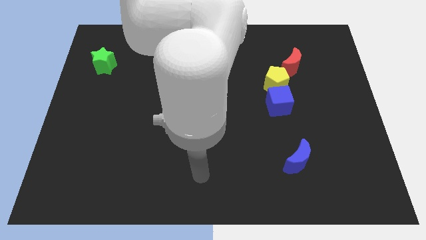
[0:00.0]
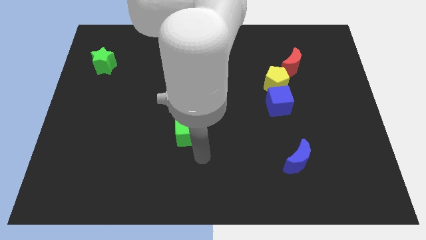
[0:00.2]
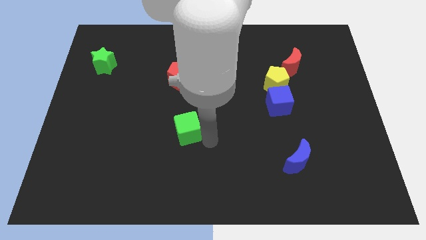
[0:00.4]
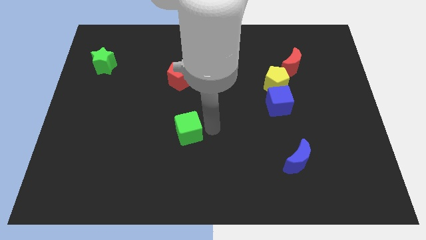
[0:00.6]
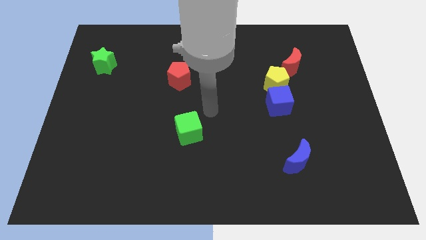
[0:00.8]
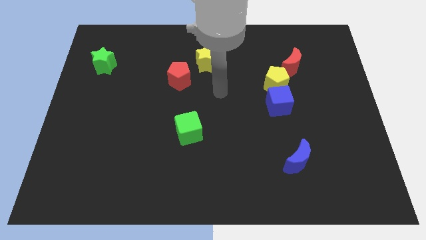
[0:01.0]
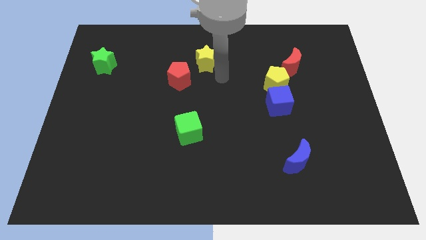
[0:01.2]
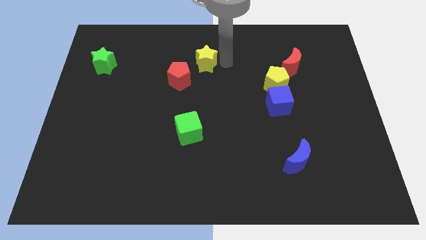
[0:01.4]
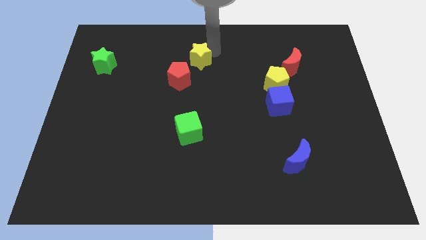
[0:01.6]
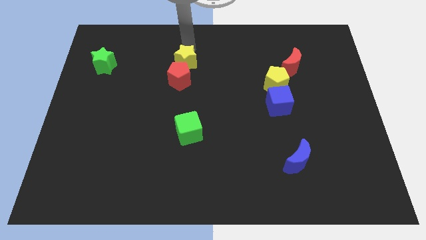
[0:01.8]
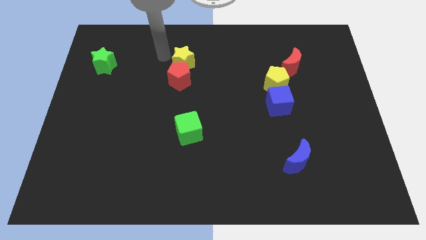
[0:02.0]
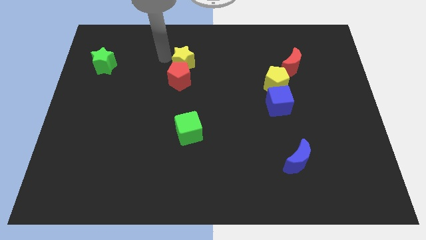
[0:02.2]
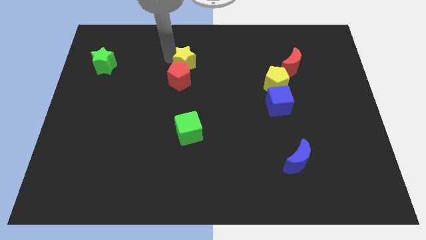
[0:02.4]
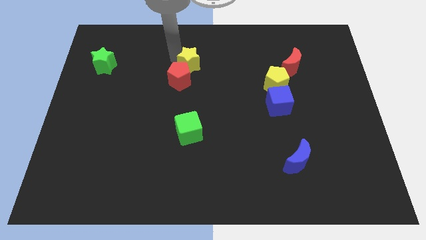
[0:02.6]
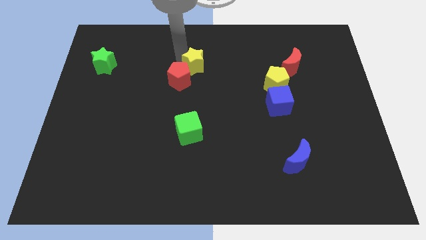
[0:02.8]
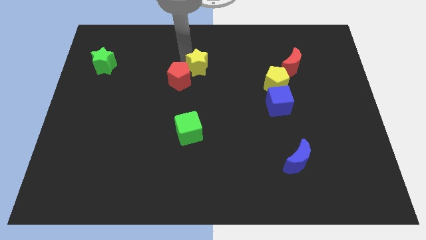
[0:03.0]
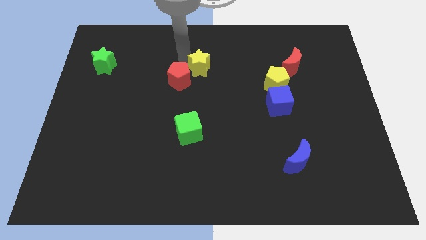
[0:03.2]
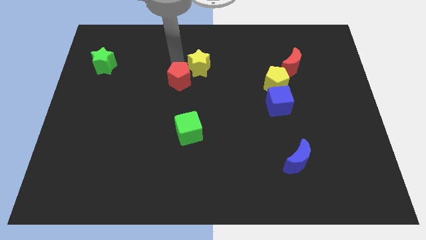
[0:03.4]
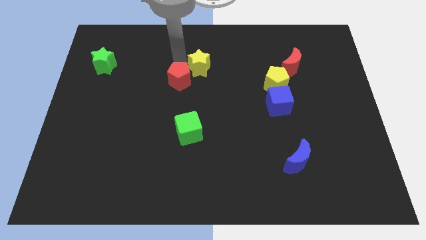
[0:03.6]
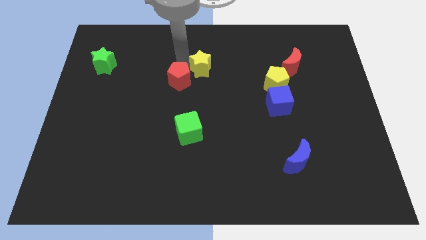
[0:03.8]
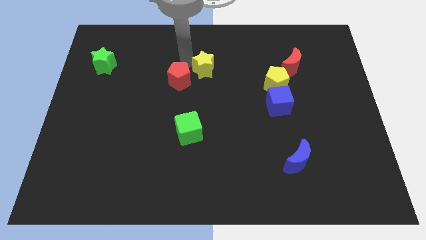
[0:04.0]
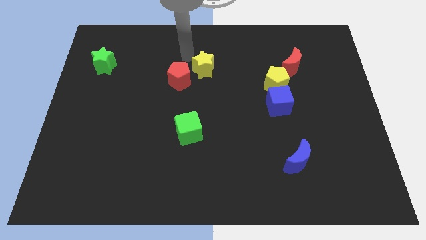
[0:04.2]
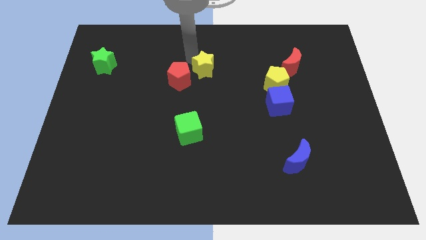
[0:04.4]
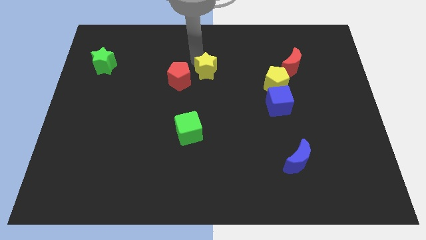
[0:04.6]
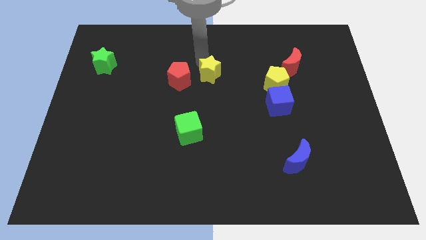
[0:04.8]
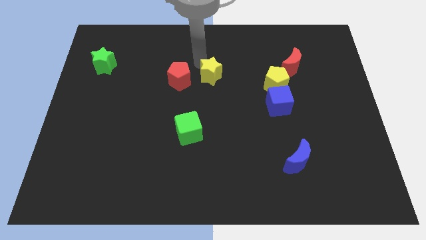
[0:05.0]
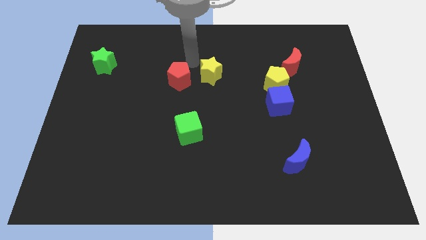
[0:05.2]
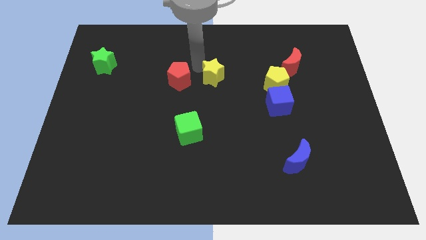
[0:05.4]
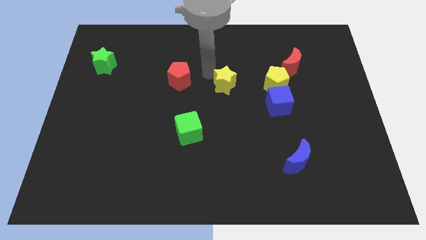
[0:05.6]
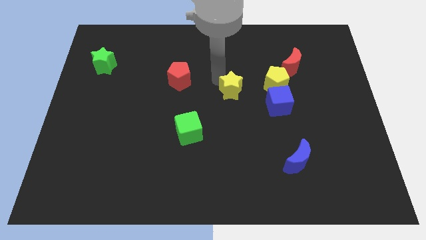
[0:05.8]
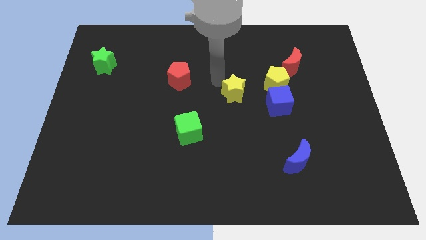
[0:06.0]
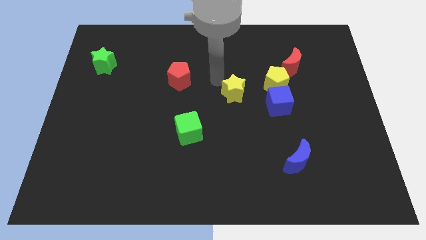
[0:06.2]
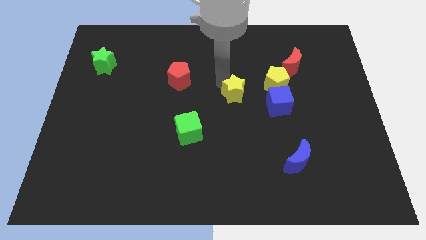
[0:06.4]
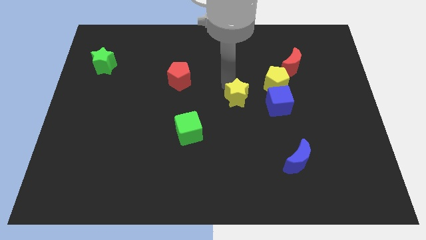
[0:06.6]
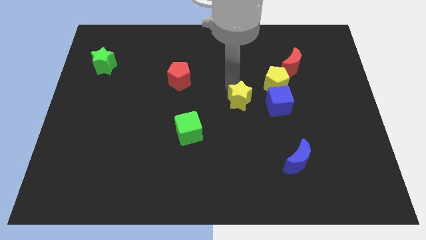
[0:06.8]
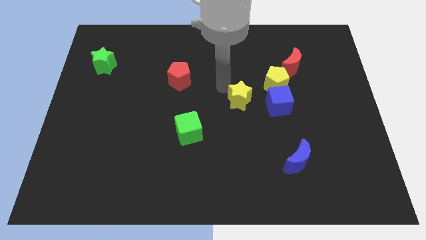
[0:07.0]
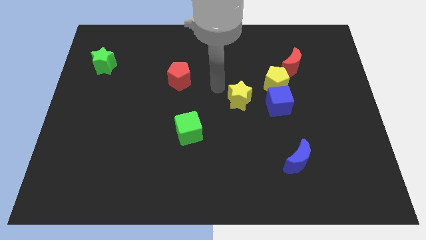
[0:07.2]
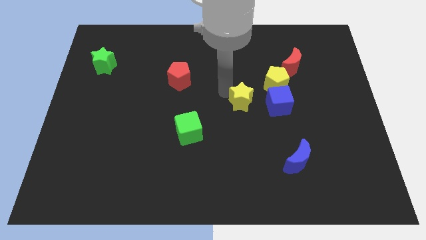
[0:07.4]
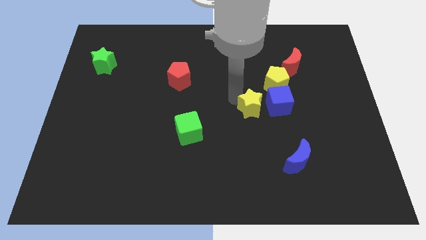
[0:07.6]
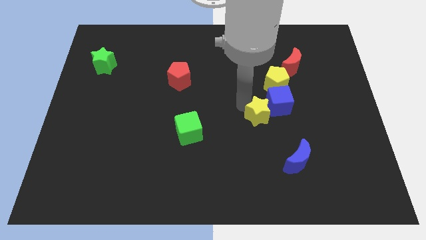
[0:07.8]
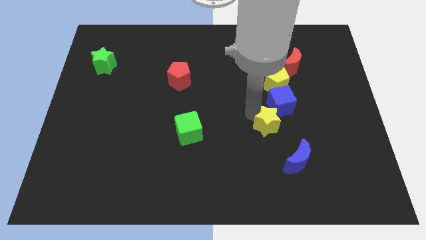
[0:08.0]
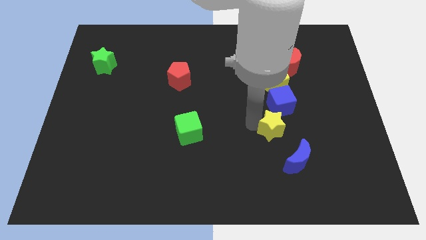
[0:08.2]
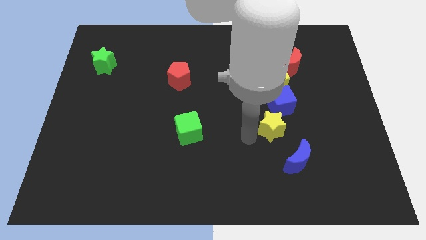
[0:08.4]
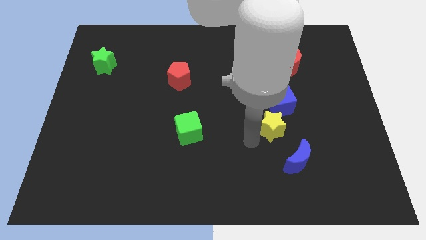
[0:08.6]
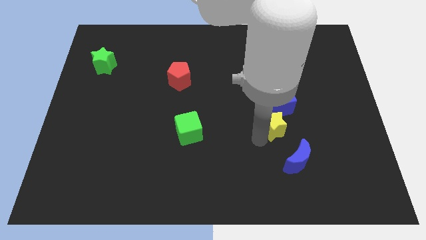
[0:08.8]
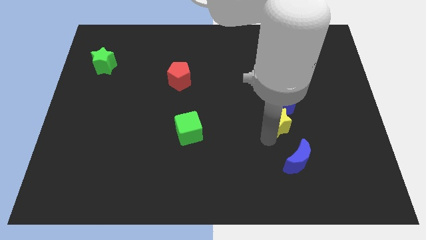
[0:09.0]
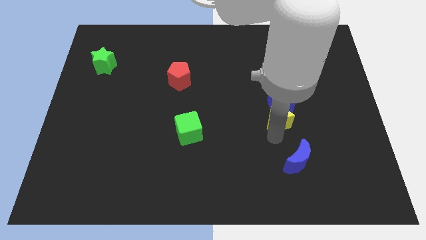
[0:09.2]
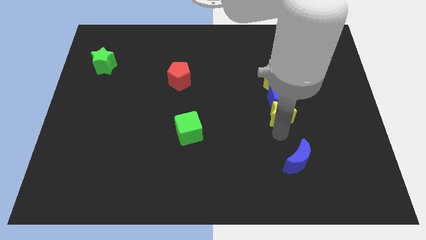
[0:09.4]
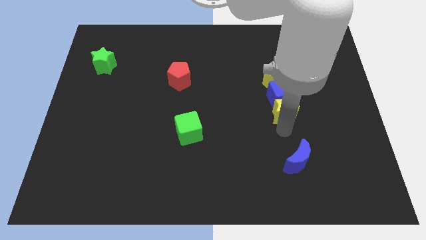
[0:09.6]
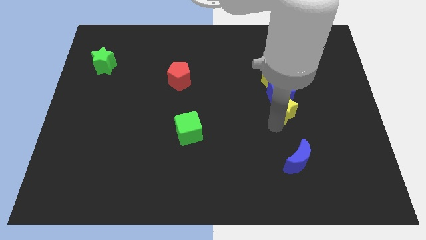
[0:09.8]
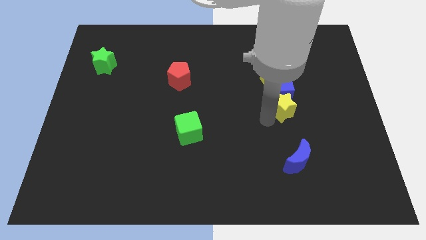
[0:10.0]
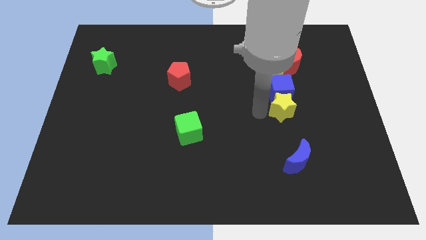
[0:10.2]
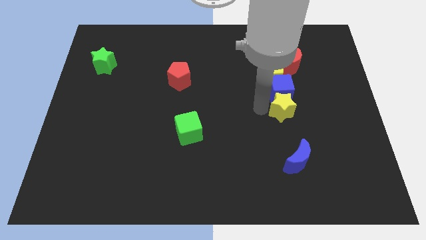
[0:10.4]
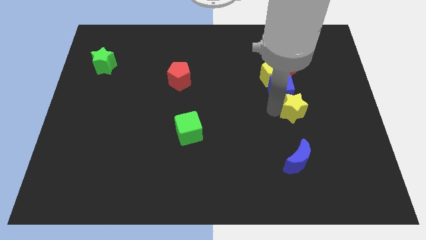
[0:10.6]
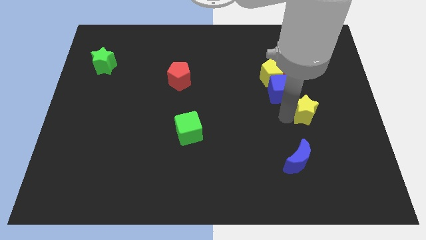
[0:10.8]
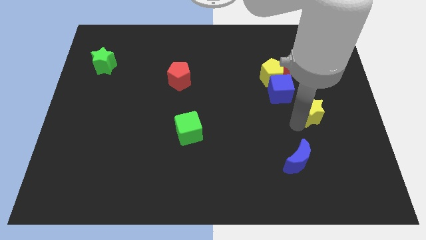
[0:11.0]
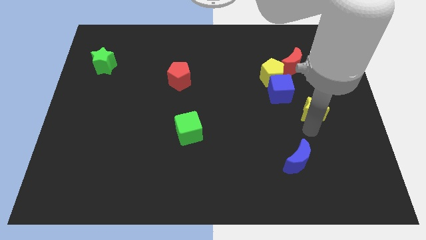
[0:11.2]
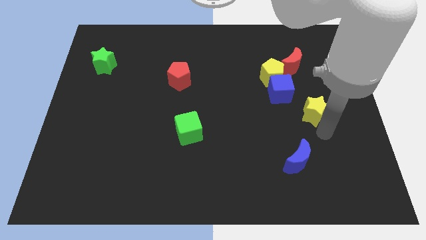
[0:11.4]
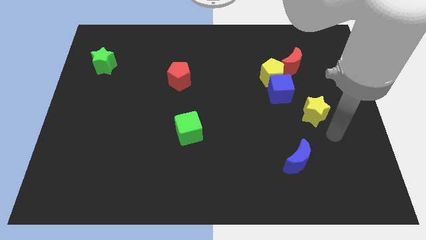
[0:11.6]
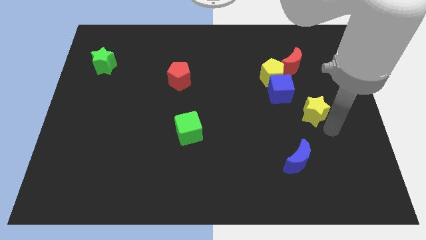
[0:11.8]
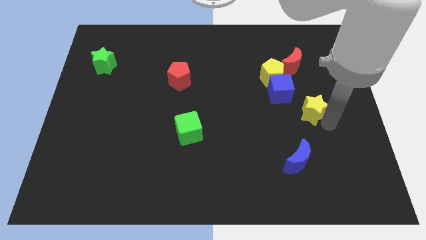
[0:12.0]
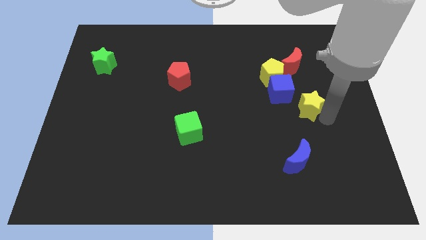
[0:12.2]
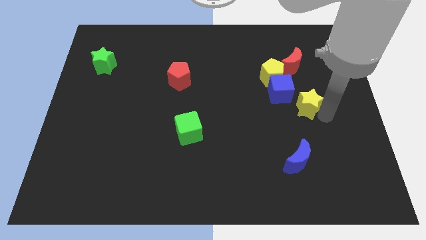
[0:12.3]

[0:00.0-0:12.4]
push the yellow star to the bottom right side of the yellow pentagon

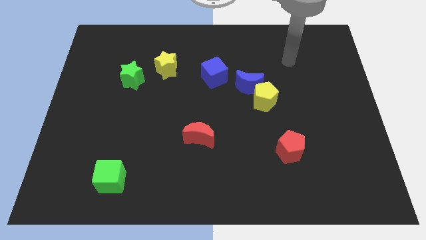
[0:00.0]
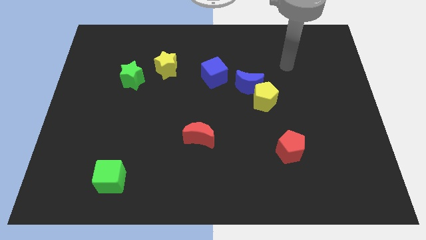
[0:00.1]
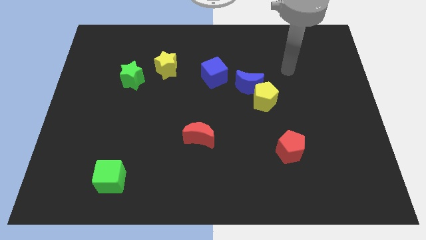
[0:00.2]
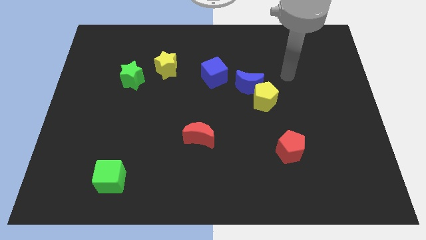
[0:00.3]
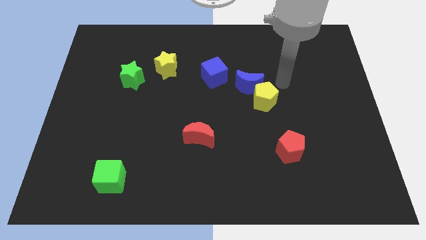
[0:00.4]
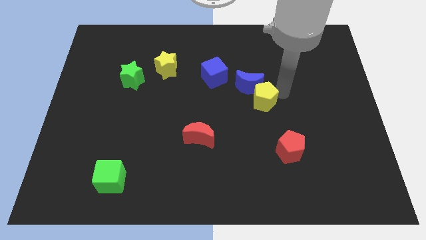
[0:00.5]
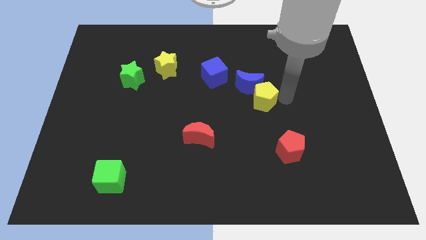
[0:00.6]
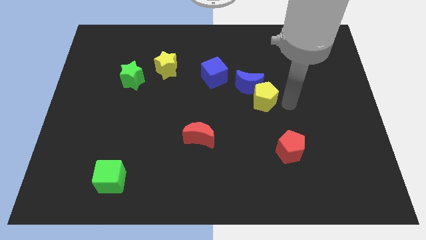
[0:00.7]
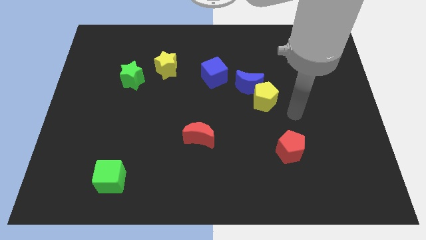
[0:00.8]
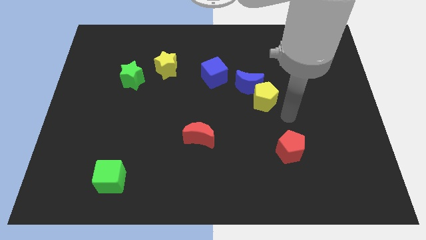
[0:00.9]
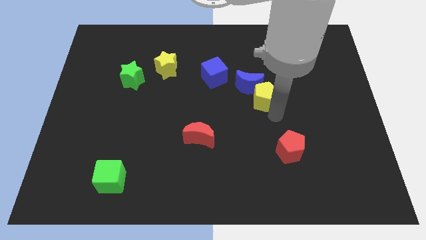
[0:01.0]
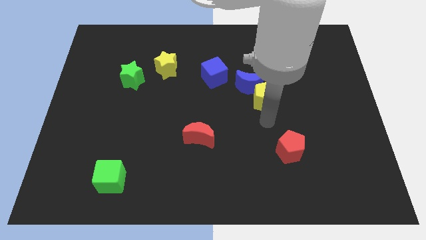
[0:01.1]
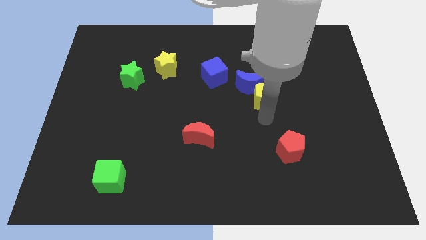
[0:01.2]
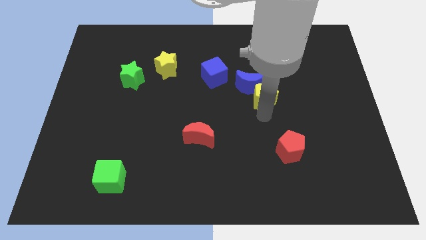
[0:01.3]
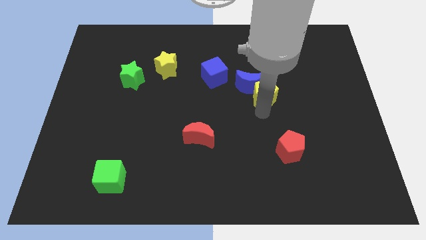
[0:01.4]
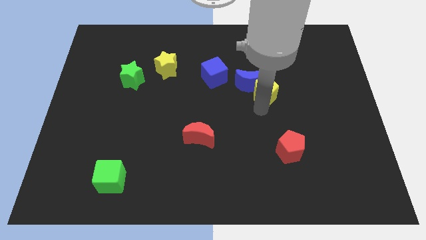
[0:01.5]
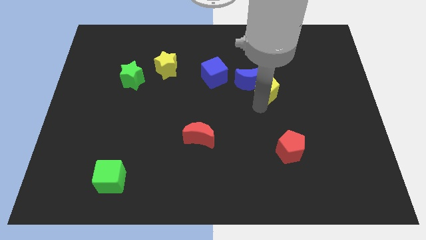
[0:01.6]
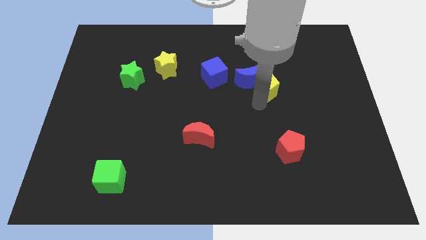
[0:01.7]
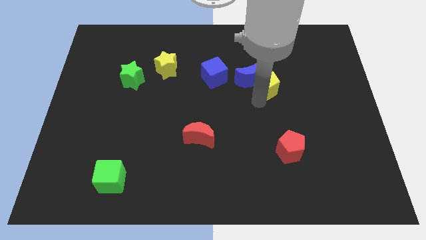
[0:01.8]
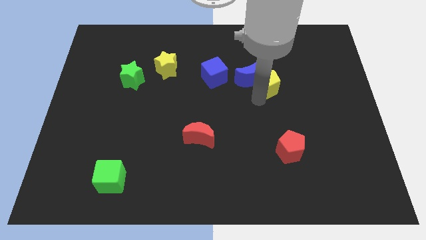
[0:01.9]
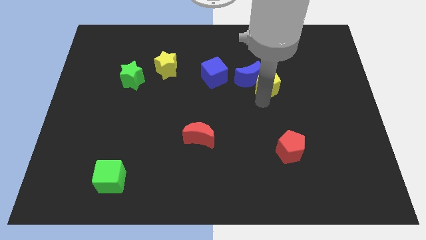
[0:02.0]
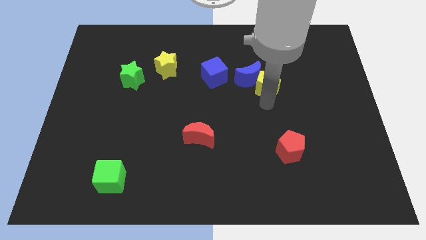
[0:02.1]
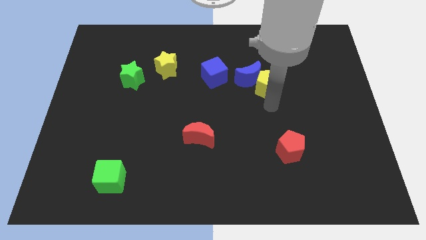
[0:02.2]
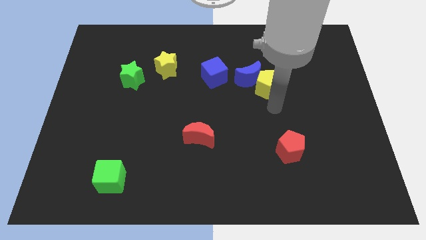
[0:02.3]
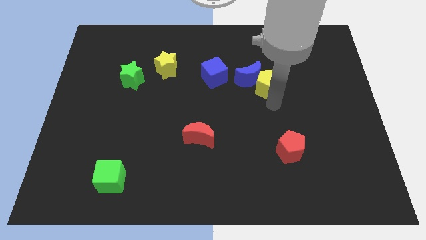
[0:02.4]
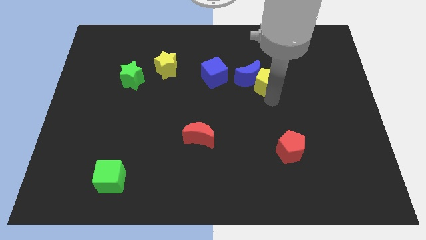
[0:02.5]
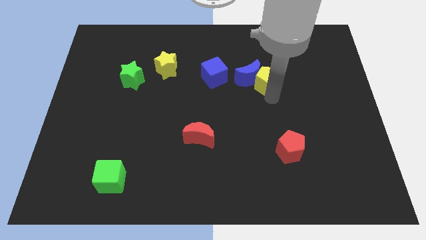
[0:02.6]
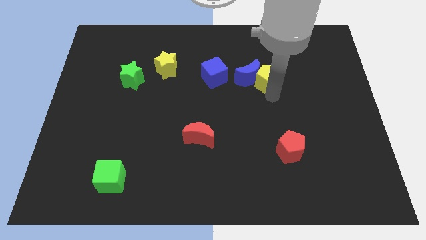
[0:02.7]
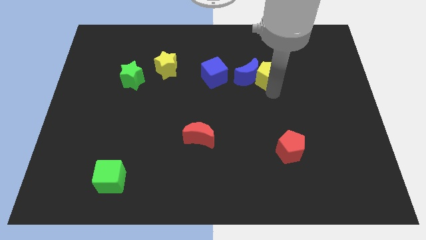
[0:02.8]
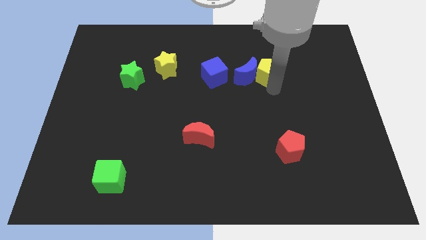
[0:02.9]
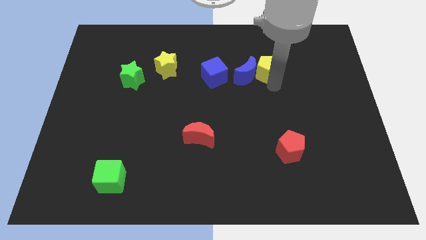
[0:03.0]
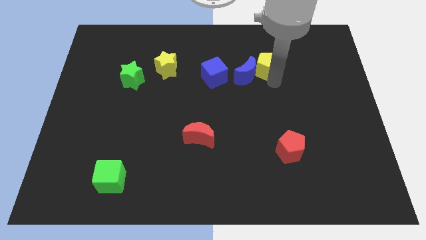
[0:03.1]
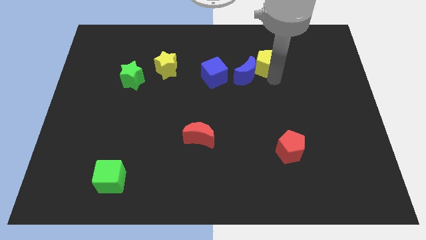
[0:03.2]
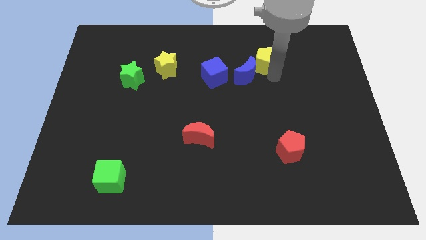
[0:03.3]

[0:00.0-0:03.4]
slide the yellow pentagon to the top of the blue moon
